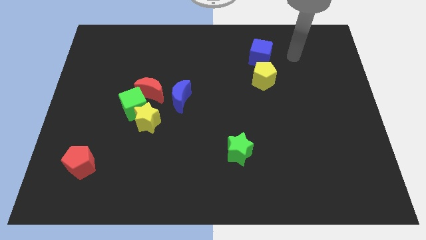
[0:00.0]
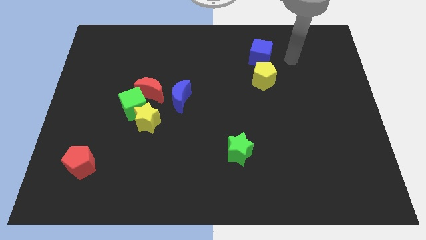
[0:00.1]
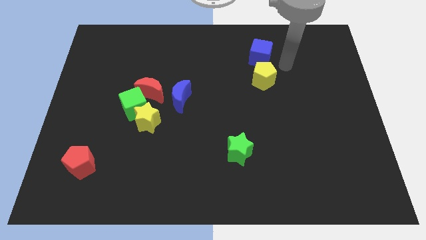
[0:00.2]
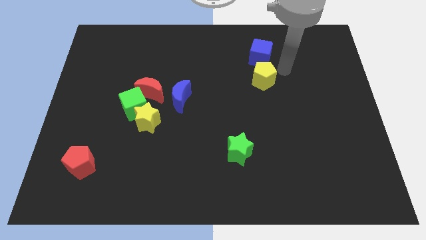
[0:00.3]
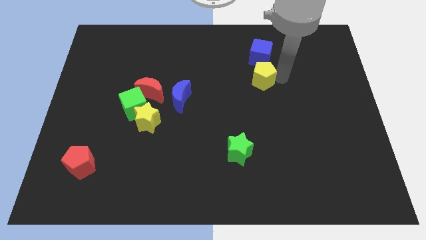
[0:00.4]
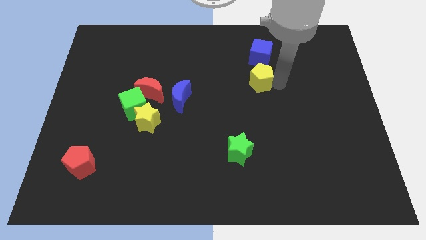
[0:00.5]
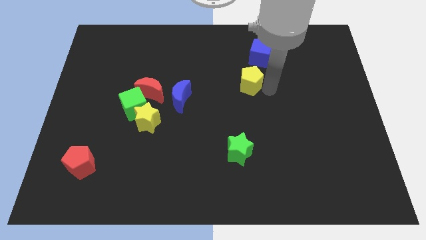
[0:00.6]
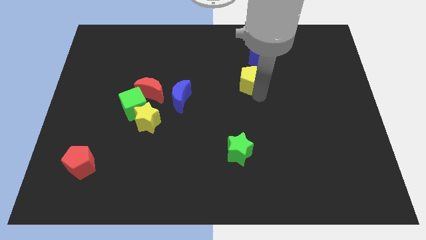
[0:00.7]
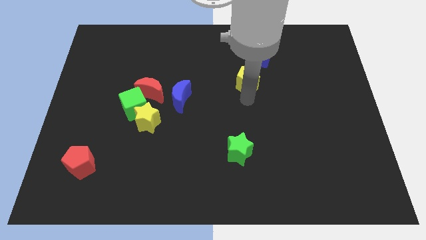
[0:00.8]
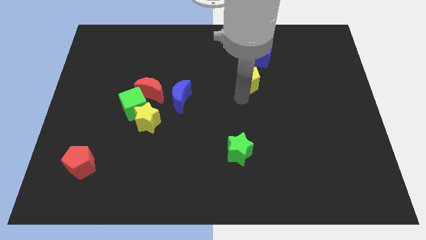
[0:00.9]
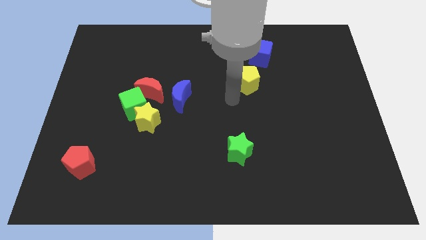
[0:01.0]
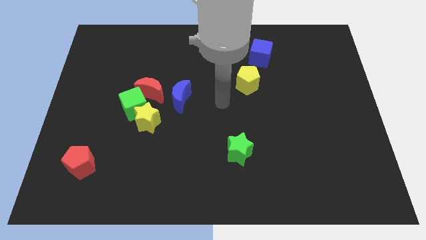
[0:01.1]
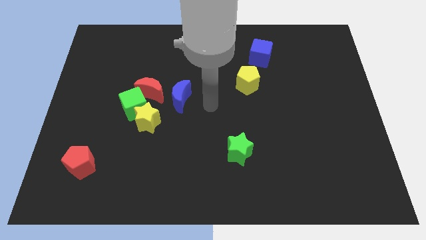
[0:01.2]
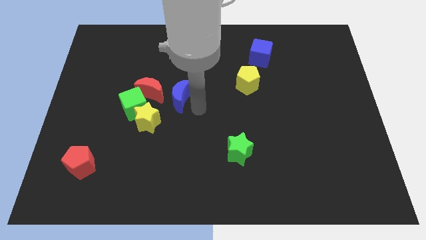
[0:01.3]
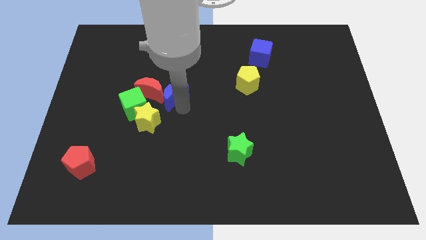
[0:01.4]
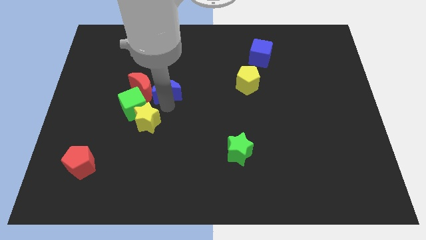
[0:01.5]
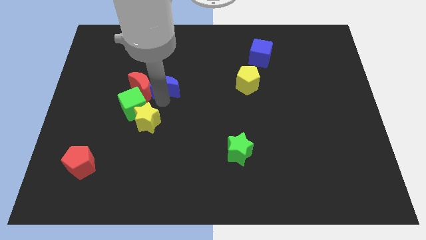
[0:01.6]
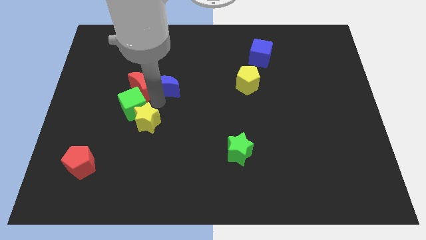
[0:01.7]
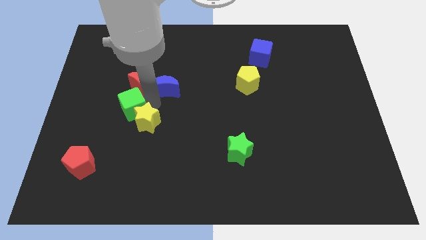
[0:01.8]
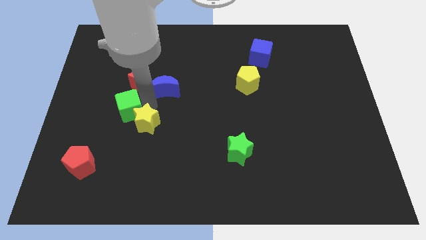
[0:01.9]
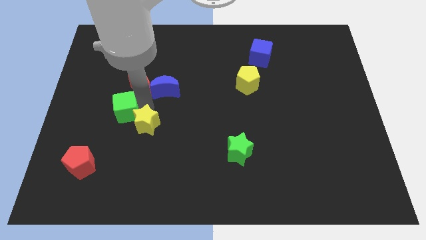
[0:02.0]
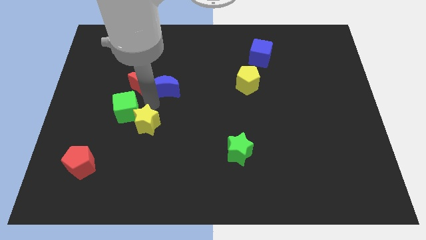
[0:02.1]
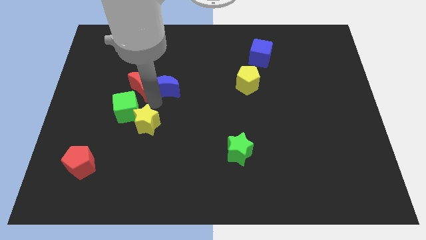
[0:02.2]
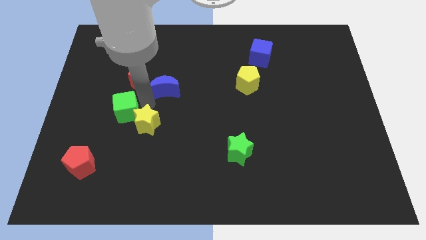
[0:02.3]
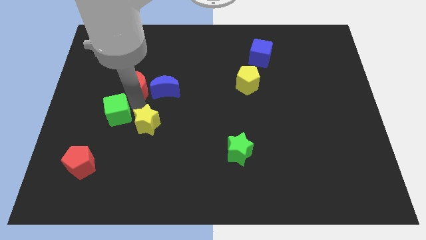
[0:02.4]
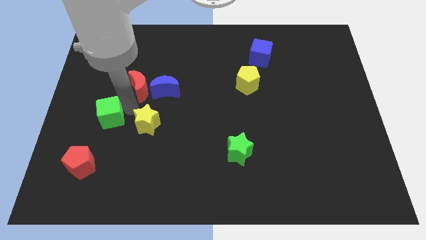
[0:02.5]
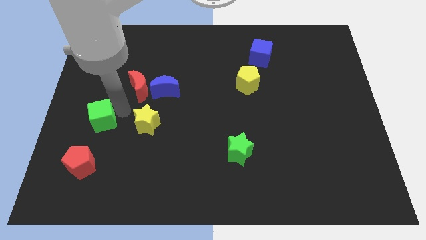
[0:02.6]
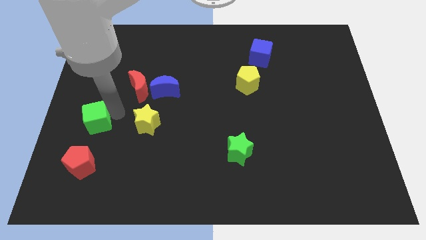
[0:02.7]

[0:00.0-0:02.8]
pull the green cube apart from the yellow star and red moon

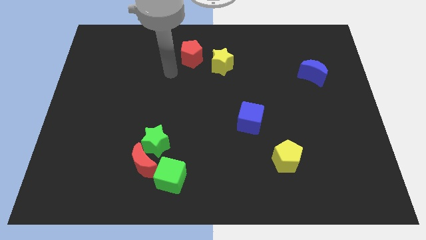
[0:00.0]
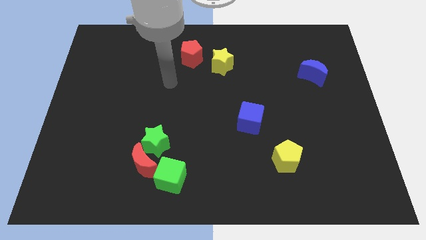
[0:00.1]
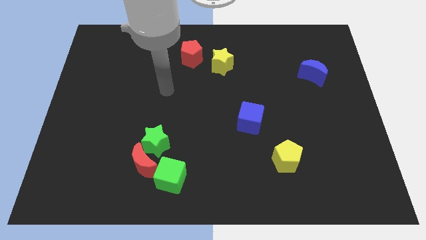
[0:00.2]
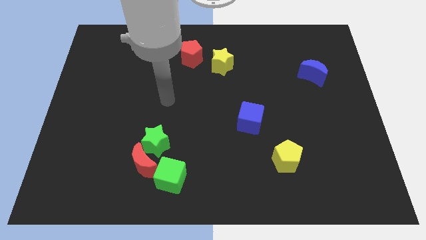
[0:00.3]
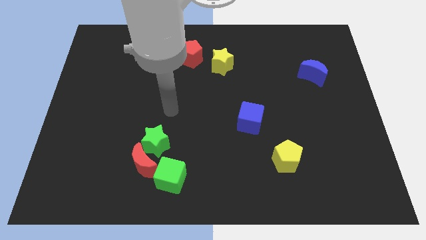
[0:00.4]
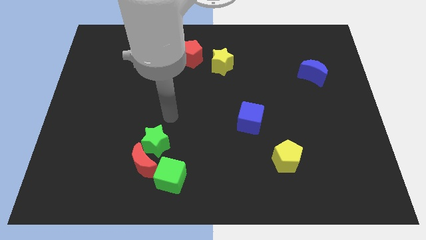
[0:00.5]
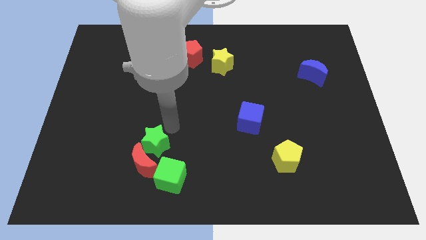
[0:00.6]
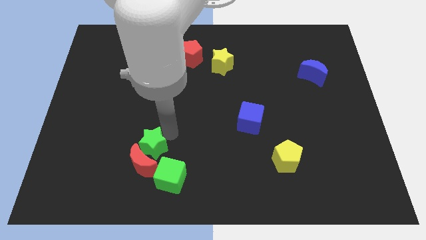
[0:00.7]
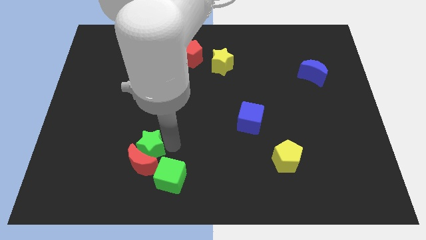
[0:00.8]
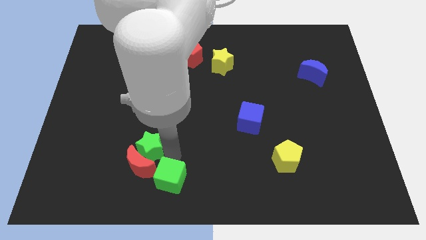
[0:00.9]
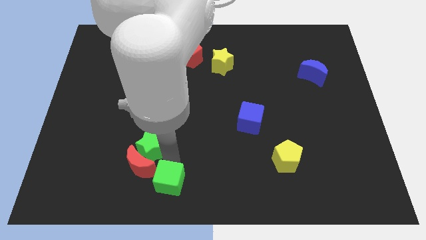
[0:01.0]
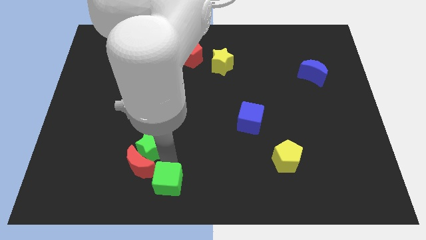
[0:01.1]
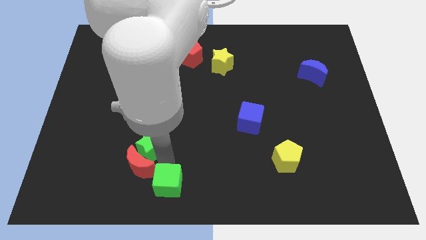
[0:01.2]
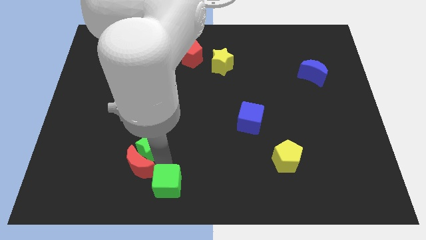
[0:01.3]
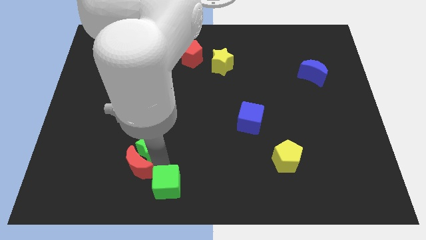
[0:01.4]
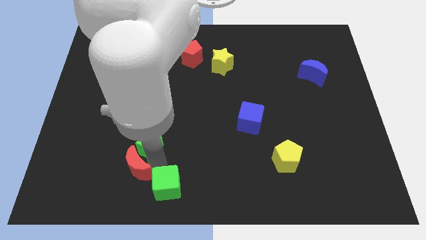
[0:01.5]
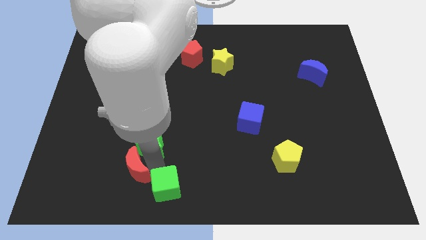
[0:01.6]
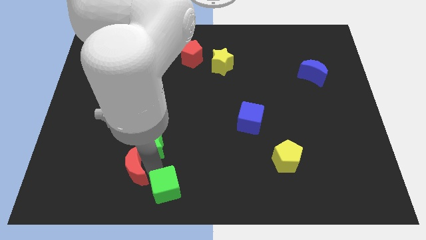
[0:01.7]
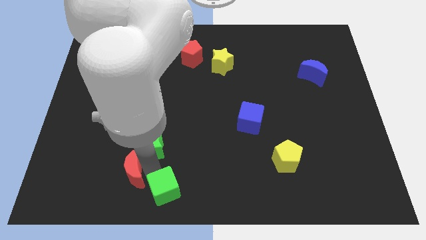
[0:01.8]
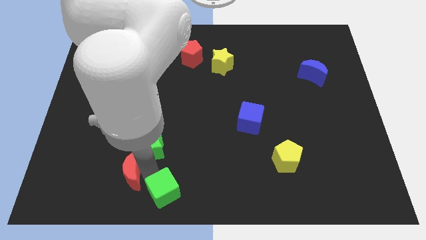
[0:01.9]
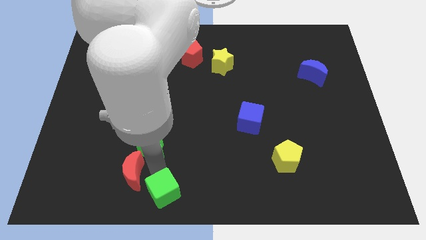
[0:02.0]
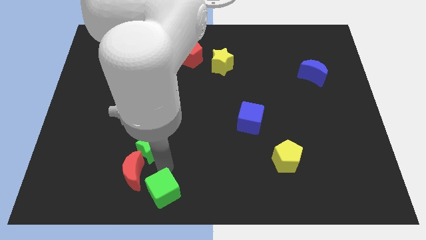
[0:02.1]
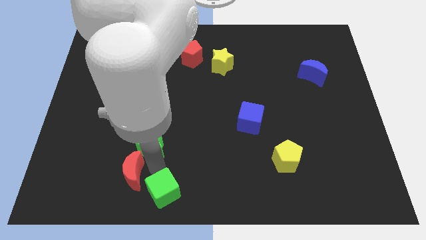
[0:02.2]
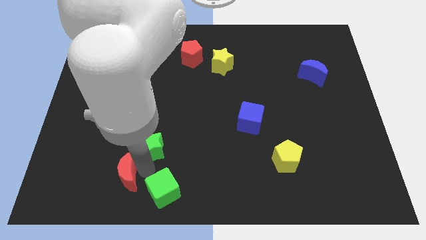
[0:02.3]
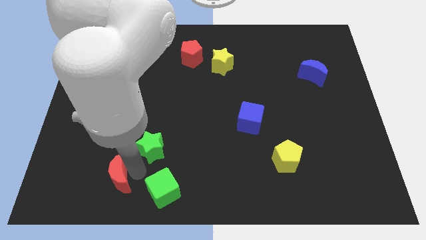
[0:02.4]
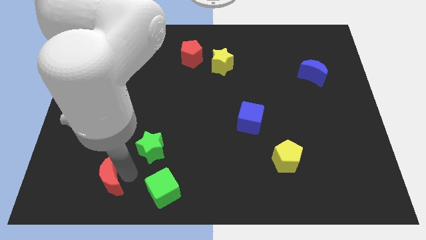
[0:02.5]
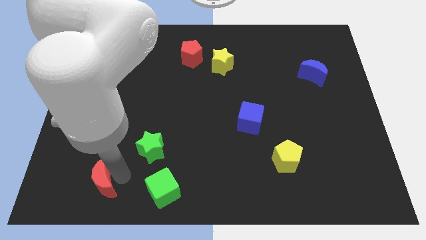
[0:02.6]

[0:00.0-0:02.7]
pull the red moon apart from the green star and green cube

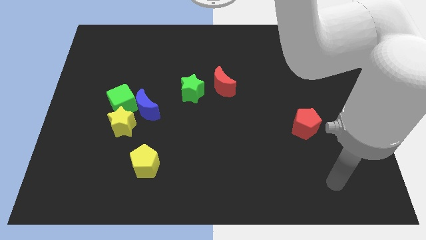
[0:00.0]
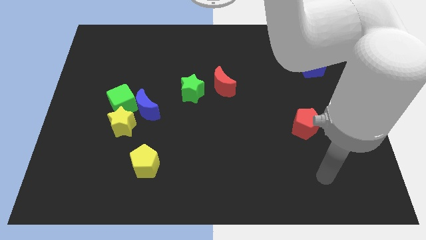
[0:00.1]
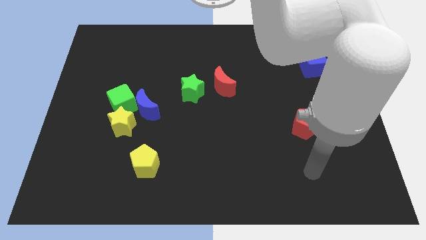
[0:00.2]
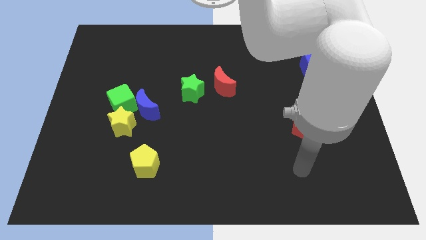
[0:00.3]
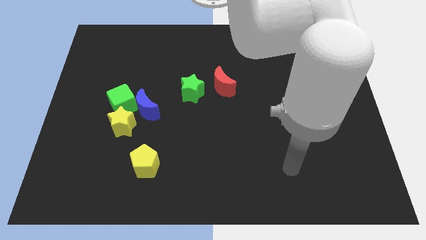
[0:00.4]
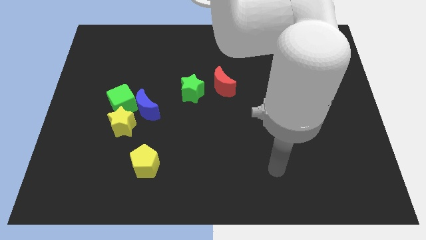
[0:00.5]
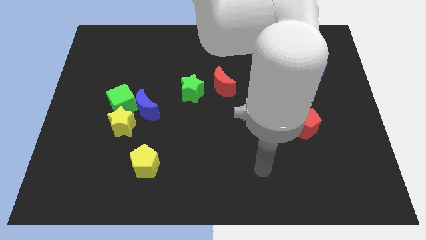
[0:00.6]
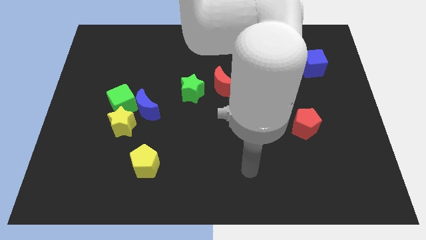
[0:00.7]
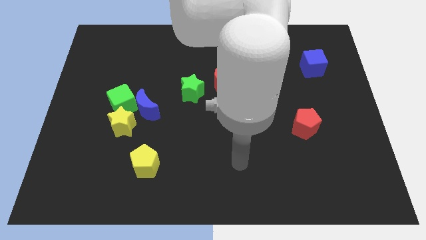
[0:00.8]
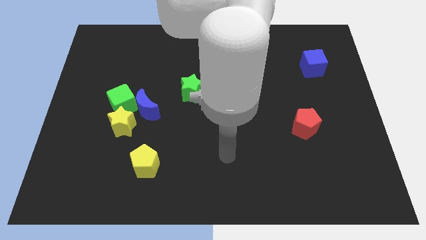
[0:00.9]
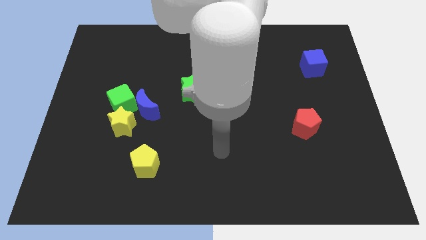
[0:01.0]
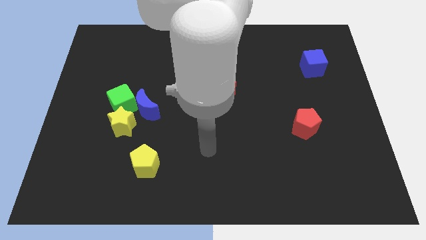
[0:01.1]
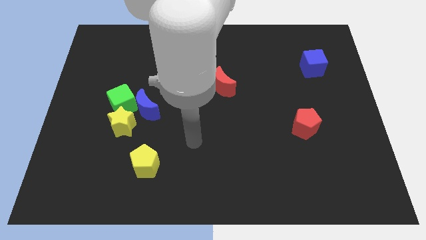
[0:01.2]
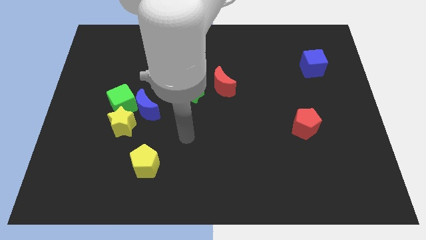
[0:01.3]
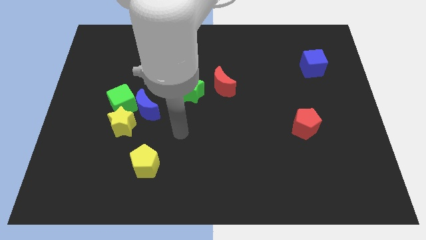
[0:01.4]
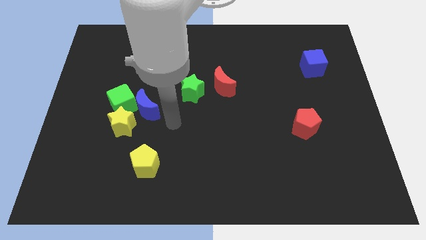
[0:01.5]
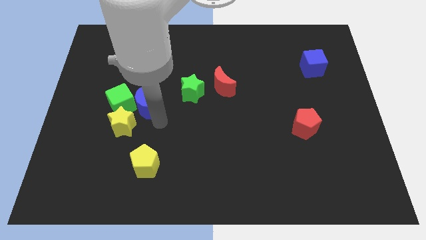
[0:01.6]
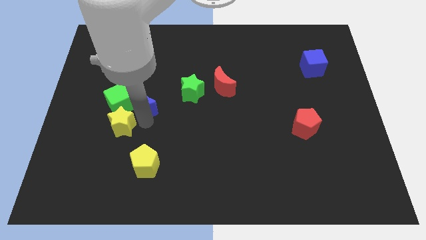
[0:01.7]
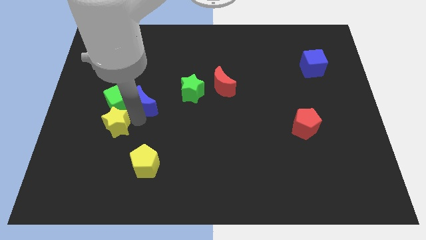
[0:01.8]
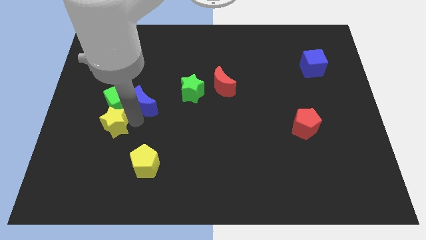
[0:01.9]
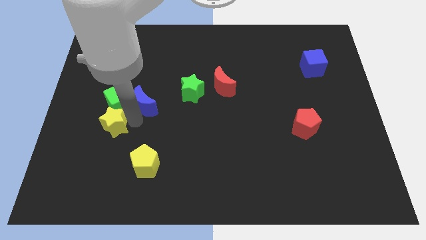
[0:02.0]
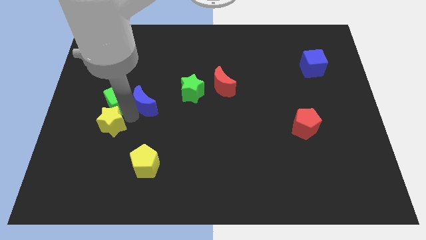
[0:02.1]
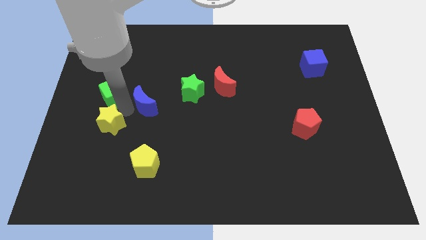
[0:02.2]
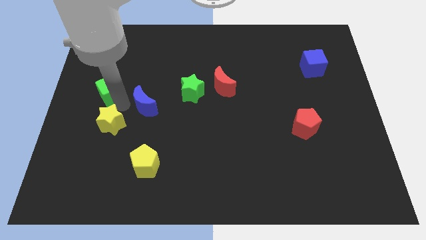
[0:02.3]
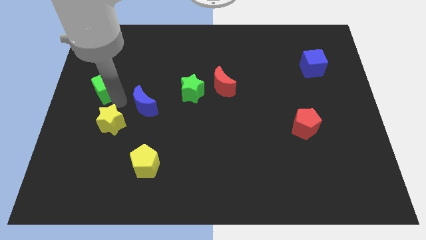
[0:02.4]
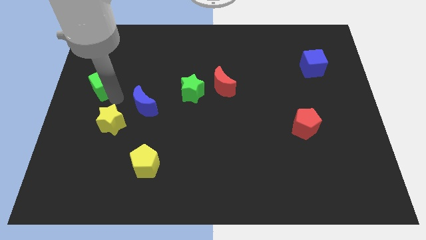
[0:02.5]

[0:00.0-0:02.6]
separate the green cube from the blue moon and yellow star

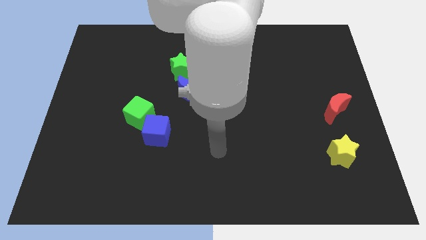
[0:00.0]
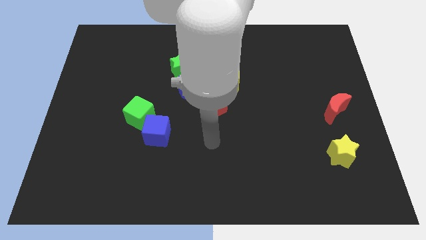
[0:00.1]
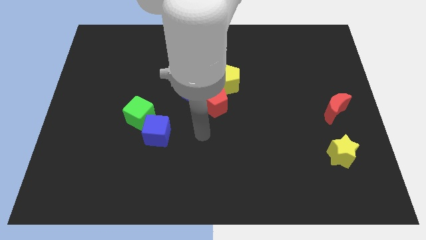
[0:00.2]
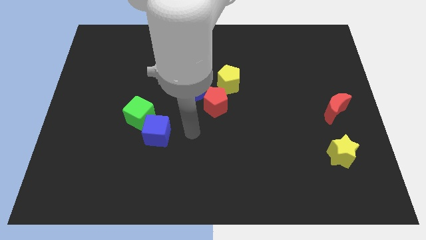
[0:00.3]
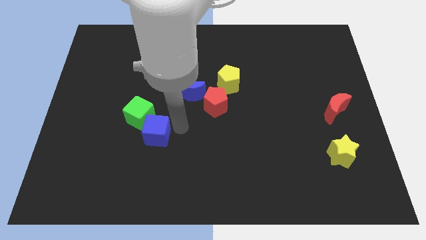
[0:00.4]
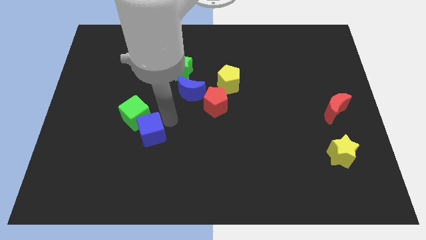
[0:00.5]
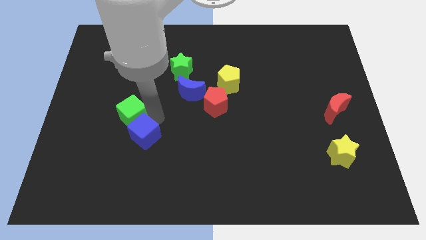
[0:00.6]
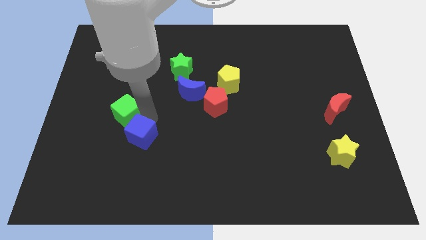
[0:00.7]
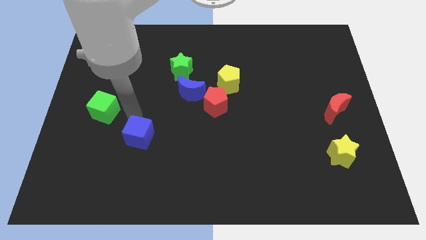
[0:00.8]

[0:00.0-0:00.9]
pull the blue cube apart from the green cube

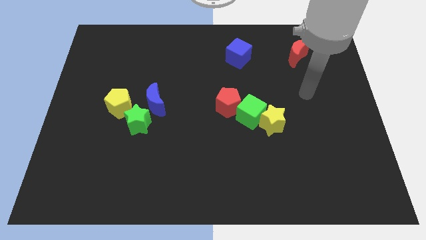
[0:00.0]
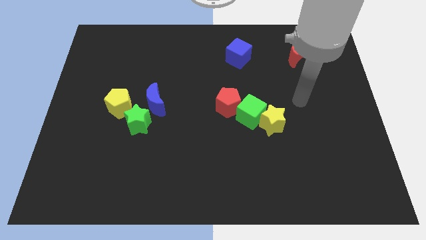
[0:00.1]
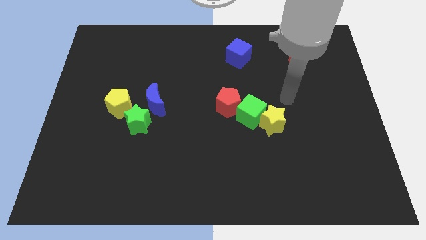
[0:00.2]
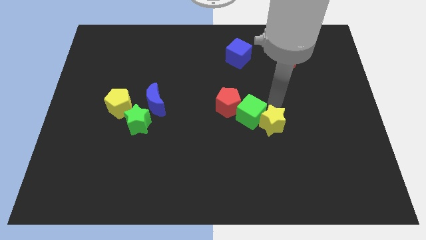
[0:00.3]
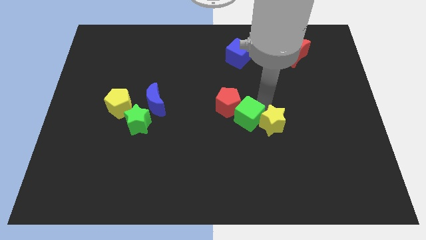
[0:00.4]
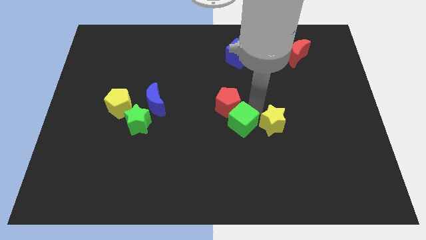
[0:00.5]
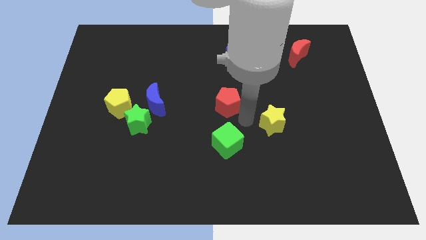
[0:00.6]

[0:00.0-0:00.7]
separate the yellow star from the green cube
